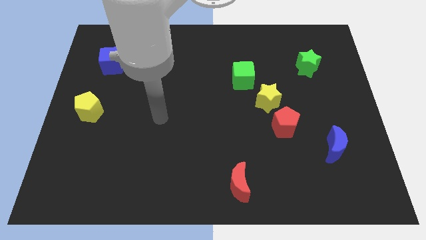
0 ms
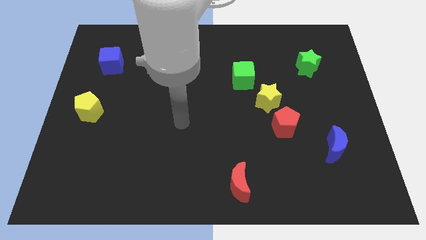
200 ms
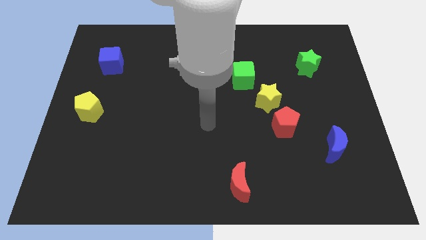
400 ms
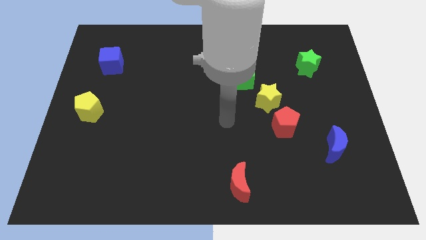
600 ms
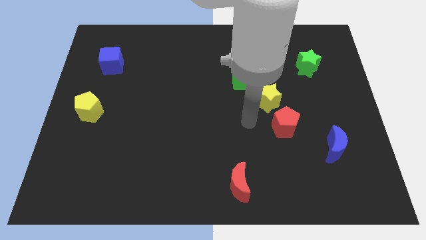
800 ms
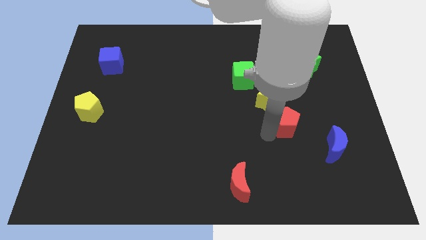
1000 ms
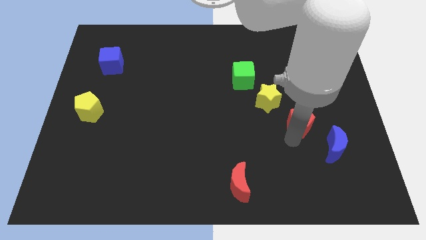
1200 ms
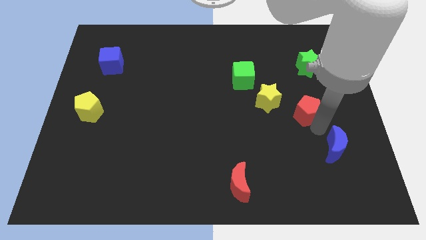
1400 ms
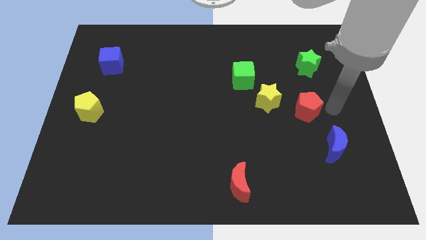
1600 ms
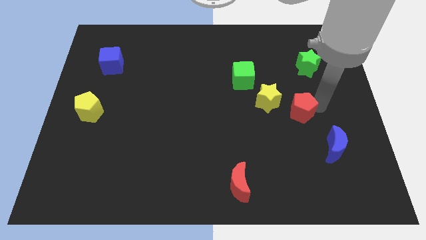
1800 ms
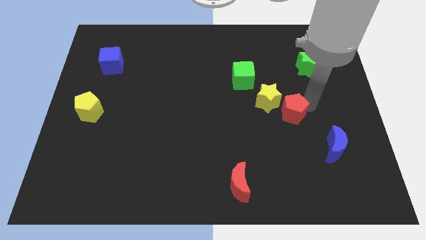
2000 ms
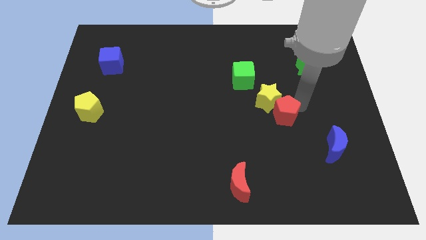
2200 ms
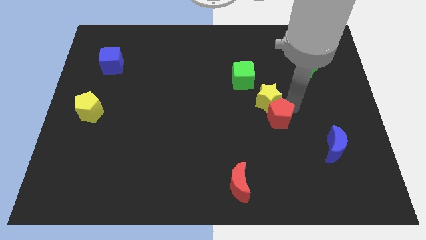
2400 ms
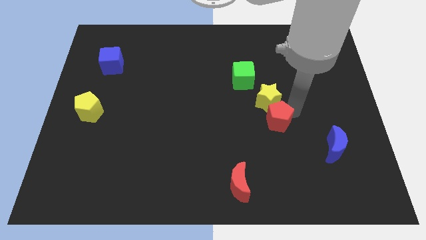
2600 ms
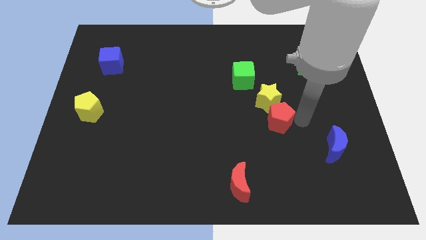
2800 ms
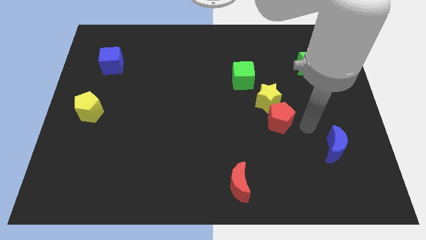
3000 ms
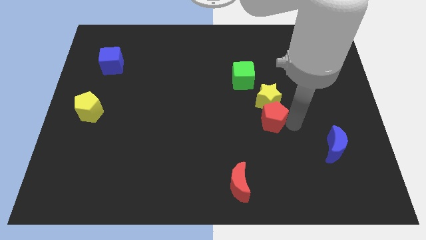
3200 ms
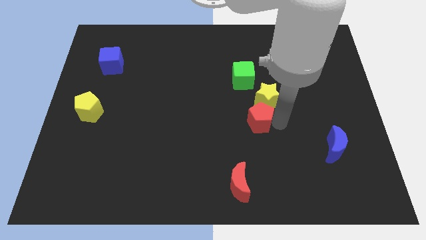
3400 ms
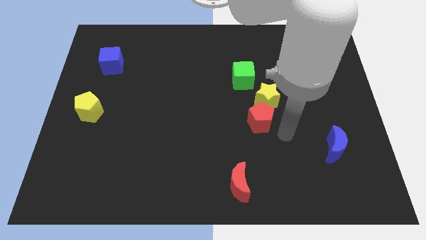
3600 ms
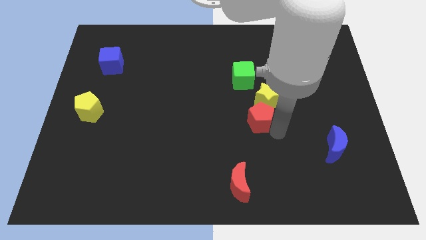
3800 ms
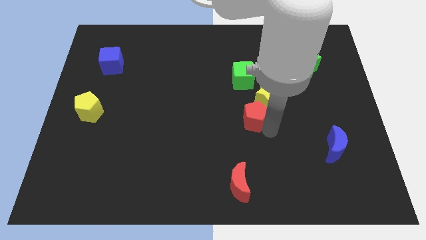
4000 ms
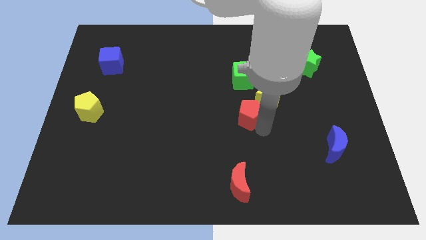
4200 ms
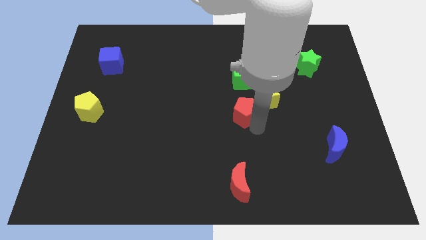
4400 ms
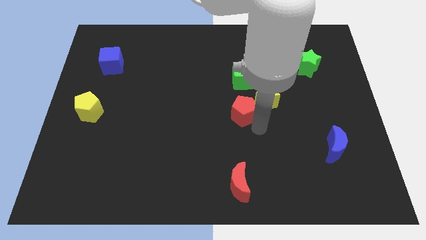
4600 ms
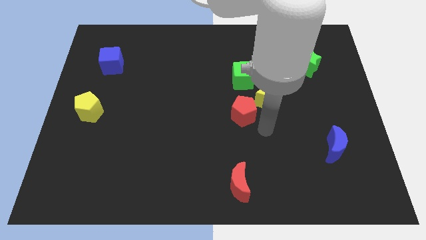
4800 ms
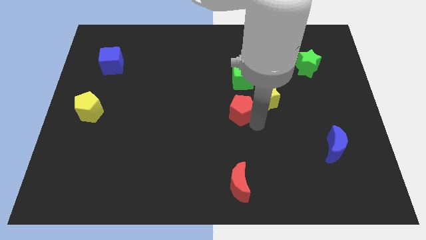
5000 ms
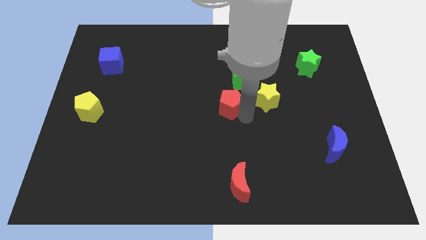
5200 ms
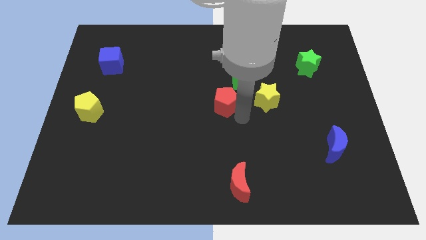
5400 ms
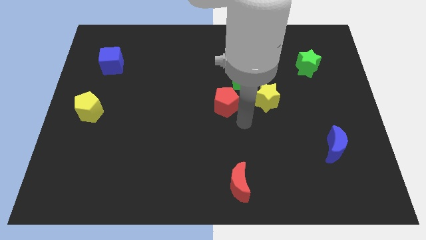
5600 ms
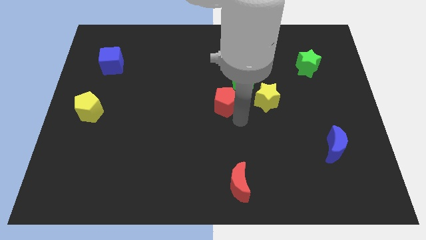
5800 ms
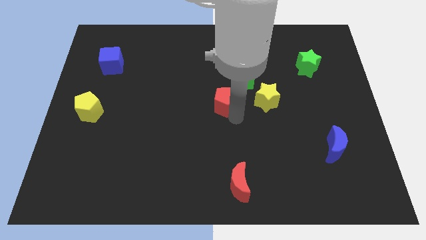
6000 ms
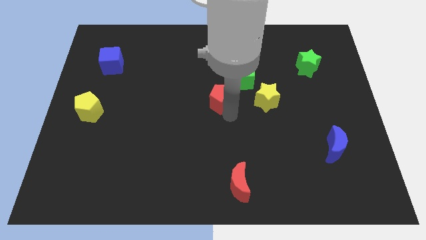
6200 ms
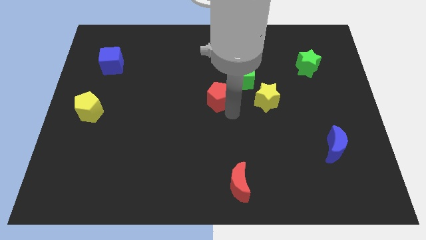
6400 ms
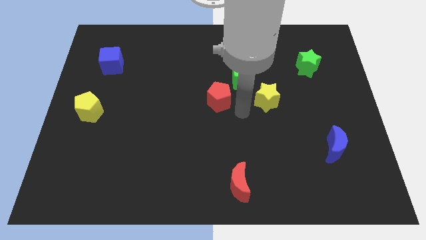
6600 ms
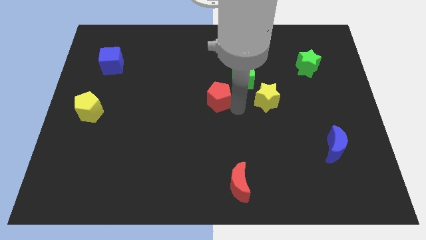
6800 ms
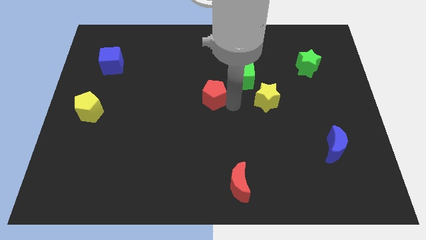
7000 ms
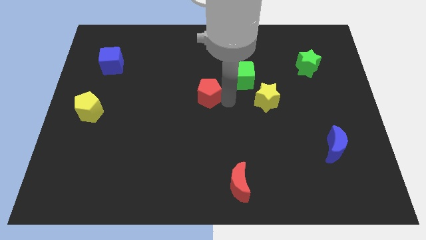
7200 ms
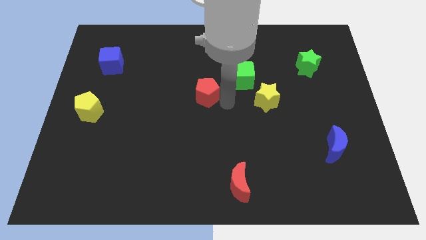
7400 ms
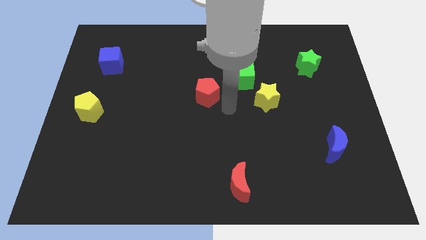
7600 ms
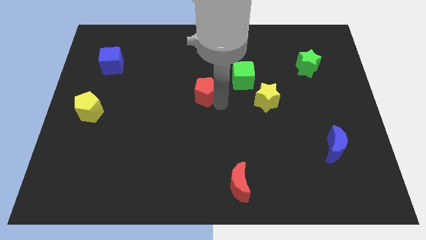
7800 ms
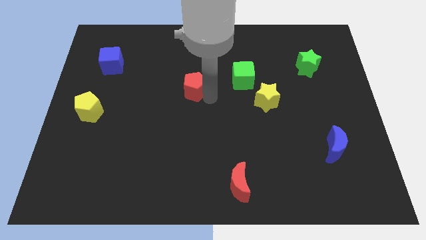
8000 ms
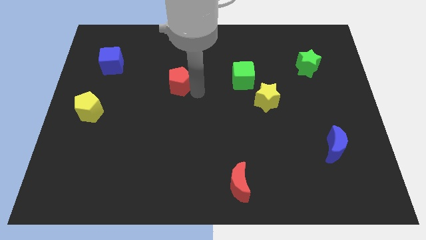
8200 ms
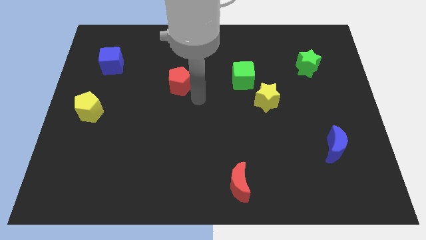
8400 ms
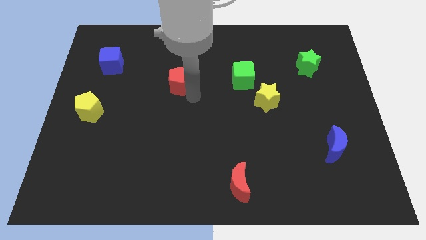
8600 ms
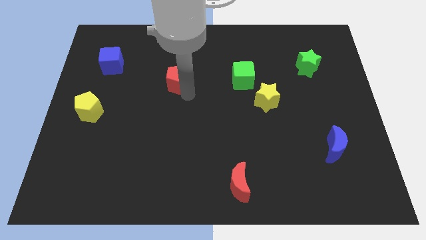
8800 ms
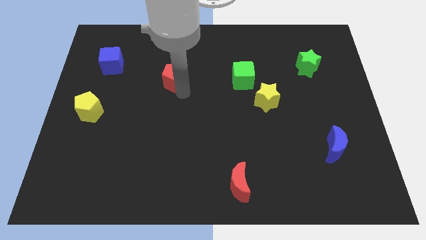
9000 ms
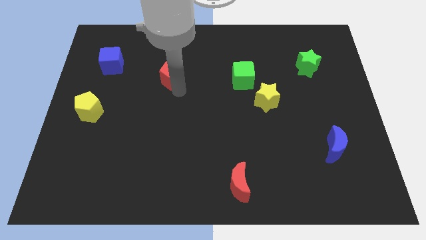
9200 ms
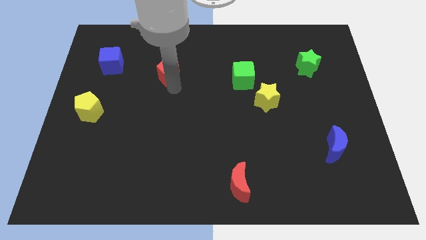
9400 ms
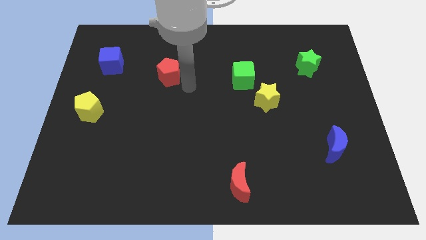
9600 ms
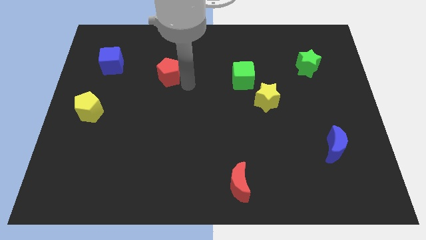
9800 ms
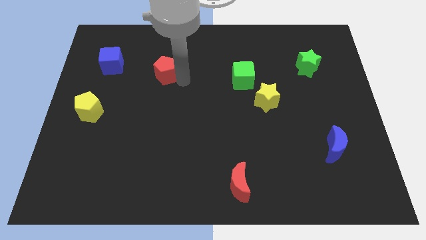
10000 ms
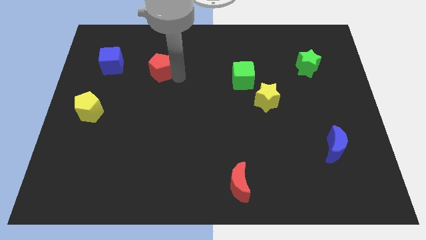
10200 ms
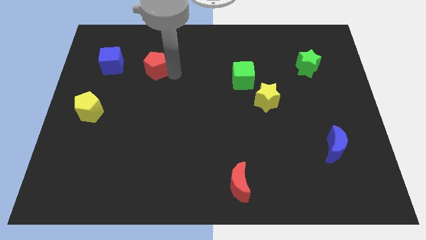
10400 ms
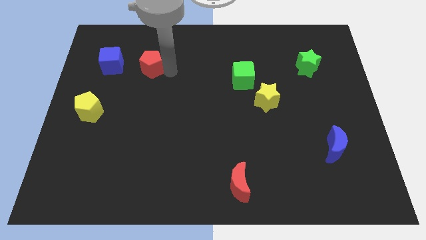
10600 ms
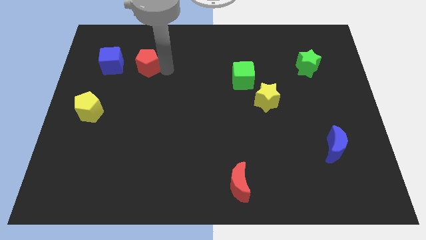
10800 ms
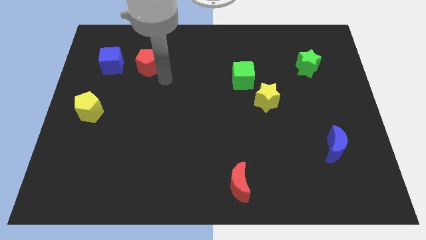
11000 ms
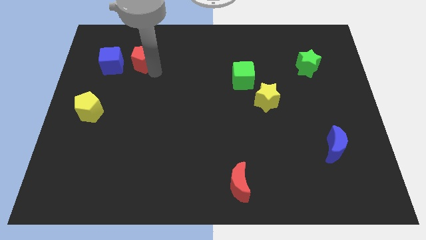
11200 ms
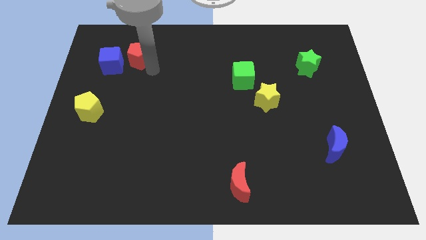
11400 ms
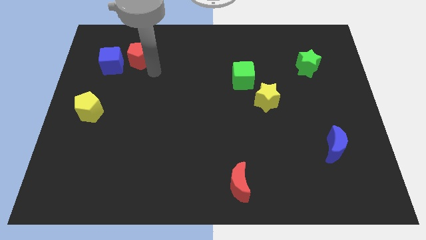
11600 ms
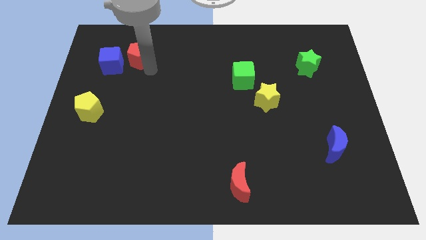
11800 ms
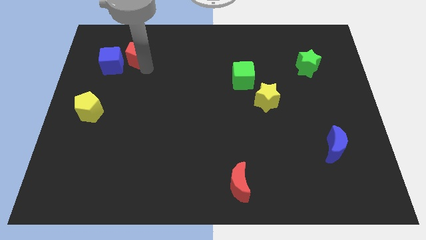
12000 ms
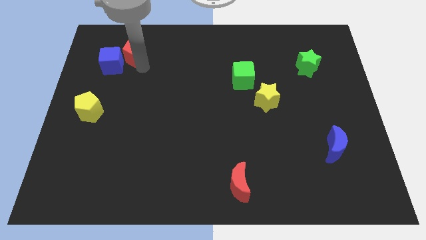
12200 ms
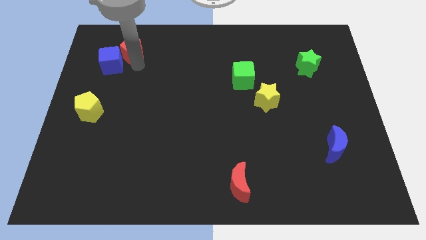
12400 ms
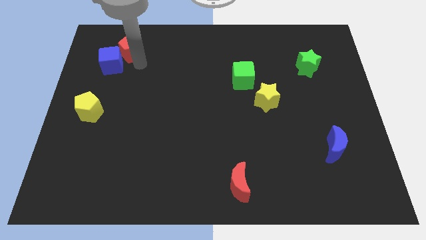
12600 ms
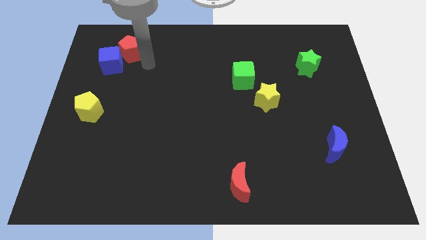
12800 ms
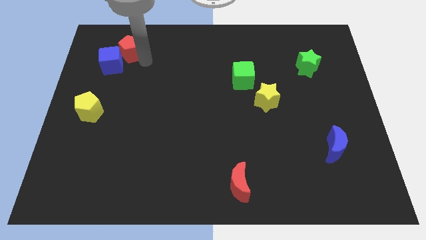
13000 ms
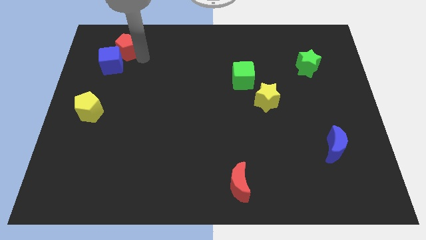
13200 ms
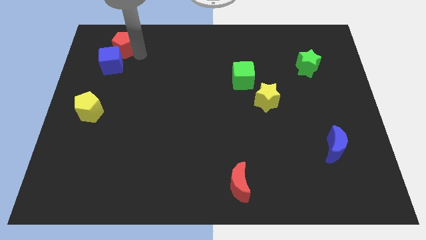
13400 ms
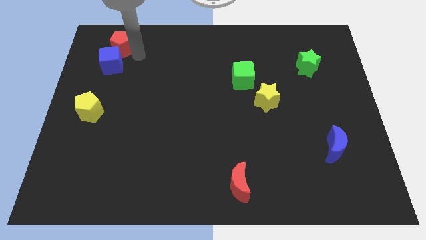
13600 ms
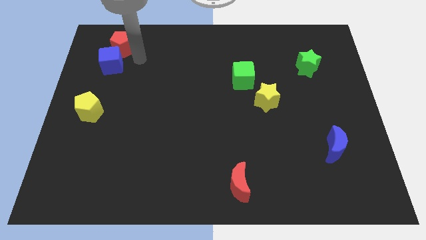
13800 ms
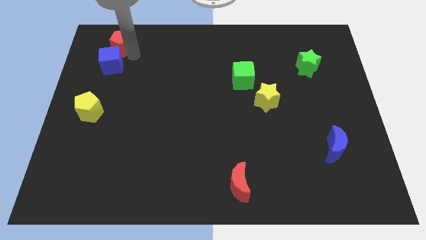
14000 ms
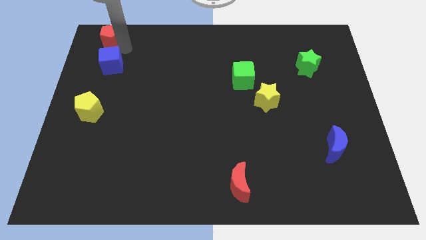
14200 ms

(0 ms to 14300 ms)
slide the red pentagon to the top left of the board
